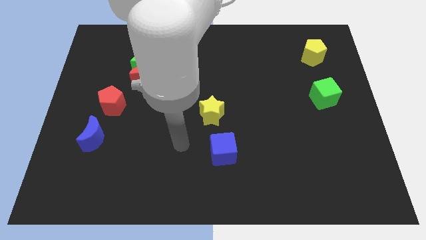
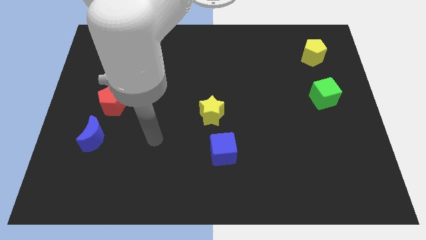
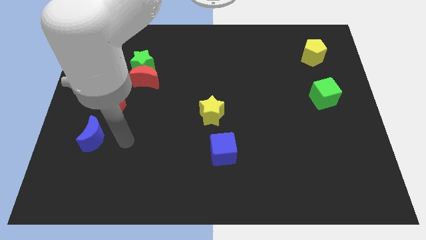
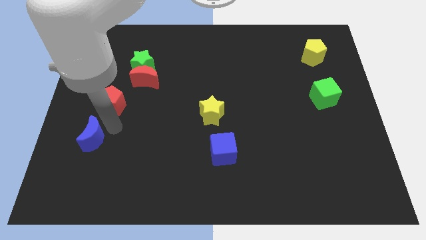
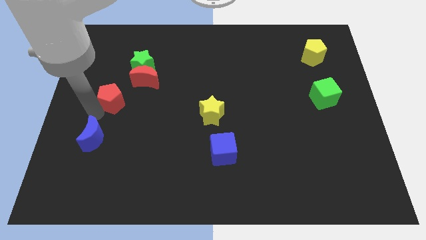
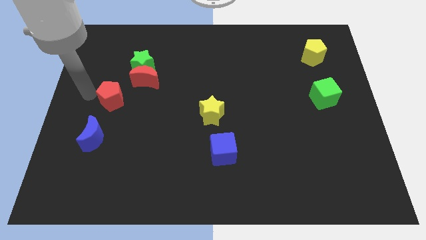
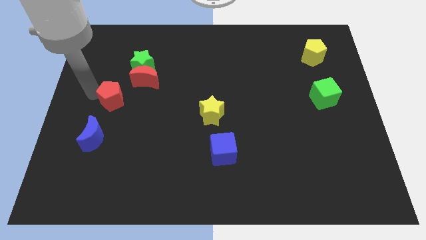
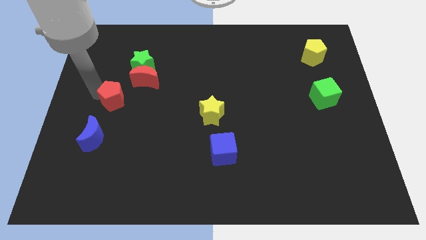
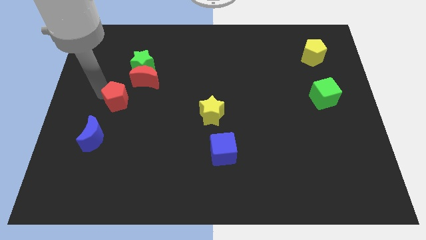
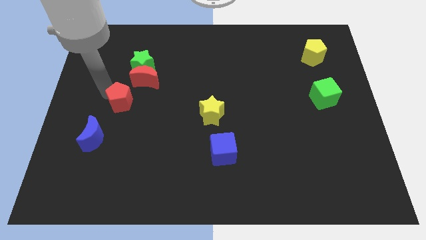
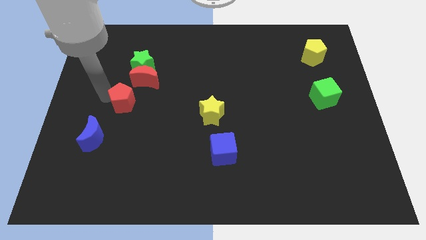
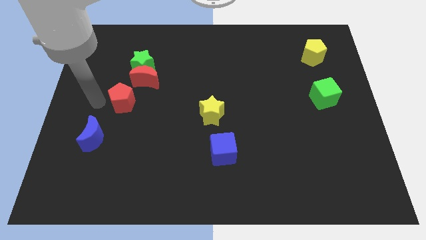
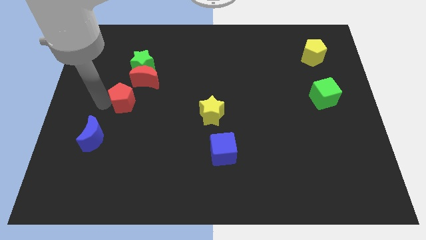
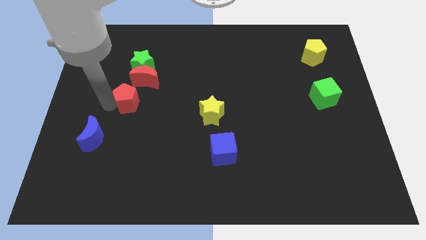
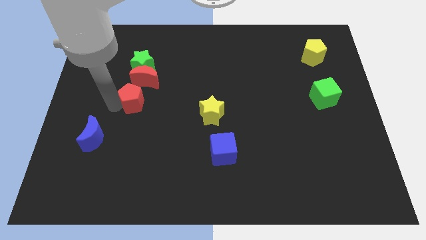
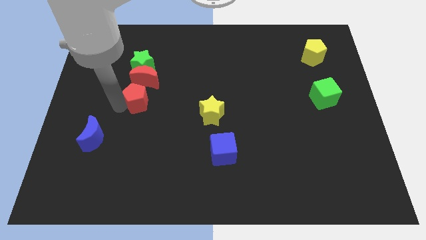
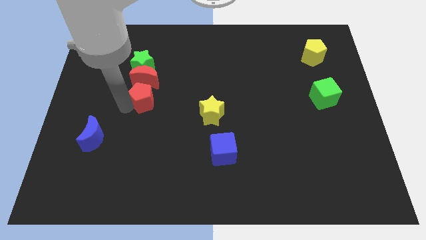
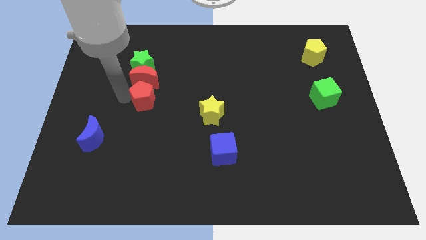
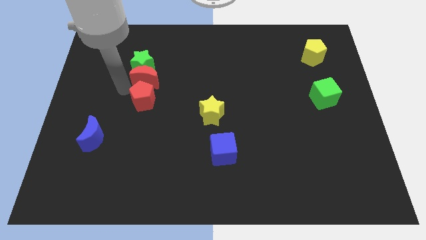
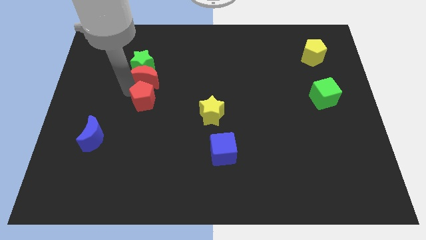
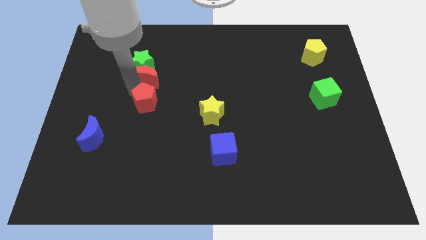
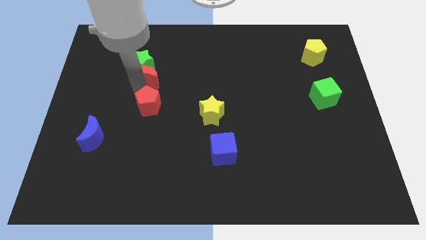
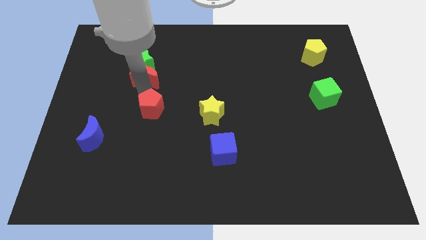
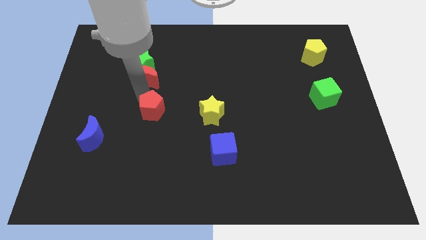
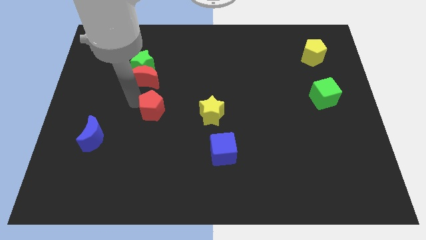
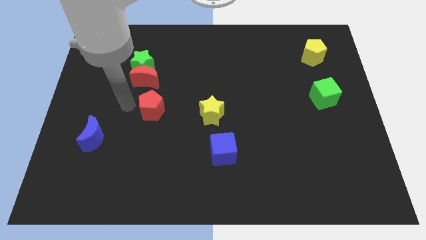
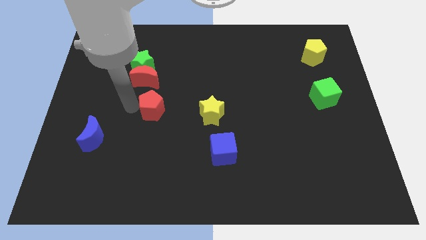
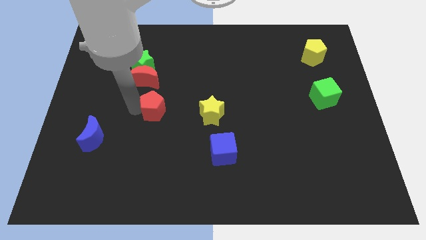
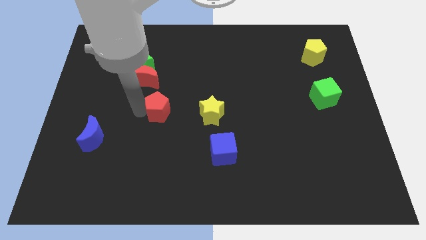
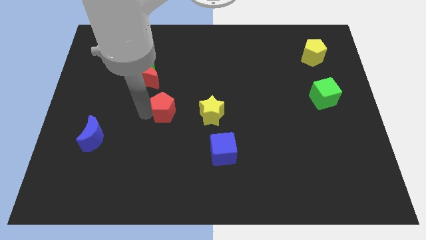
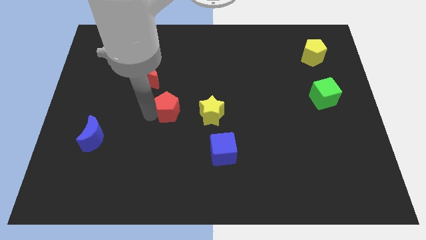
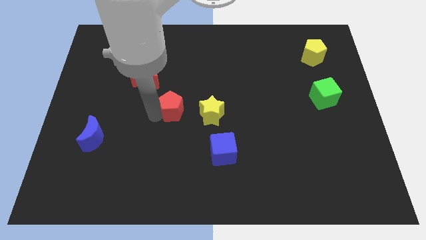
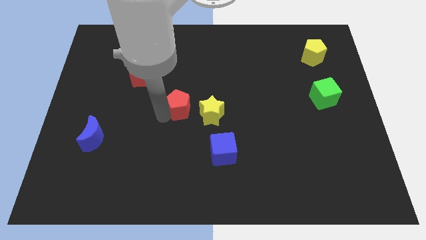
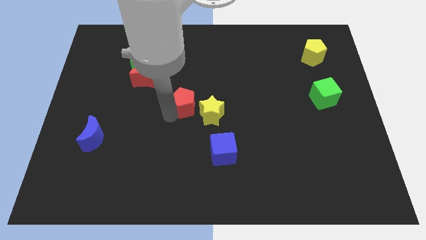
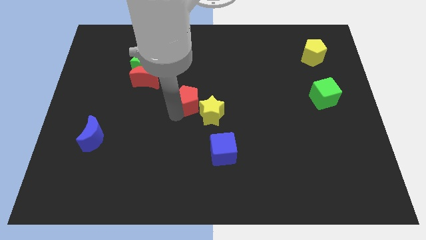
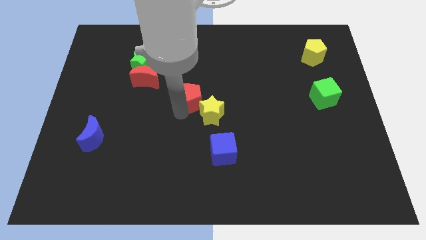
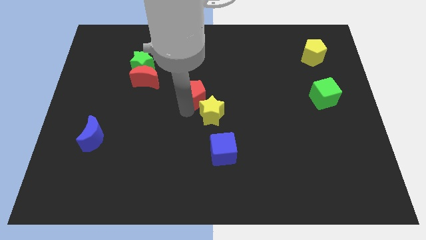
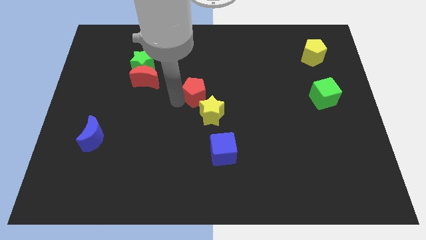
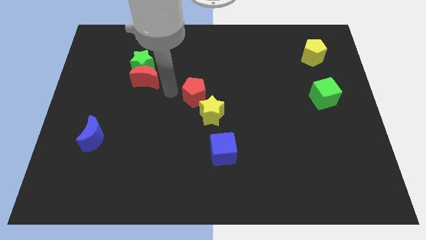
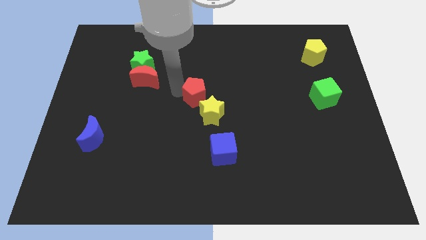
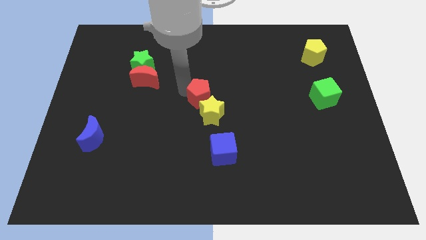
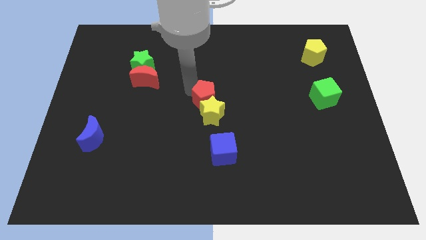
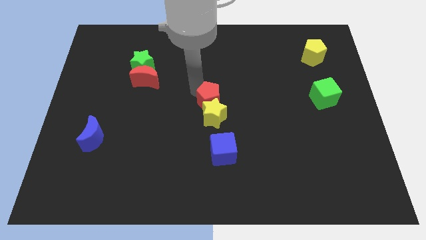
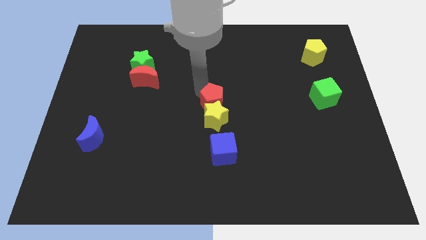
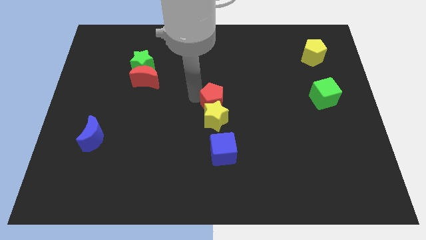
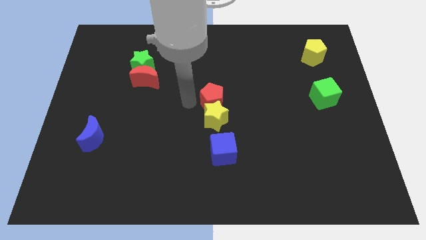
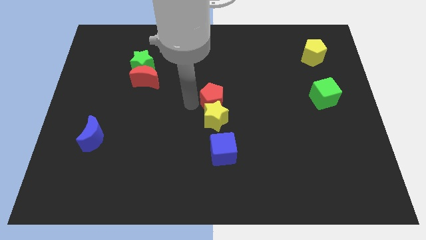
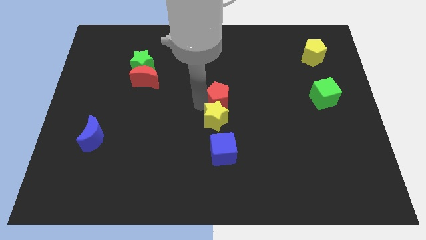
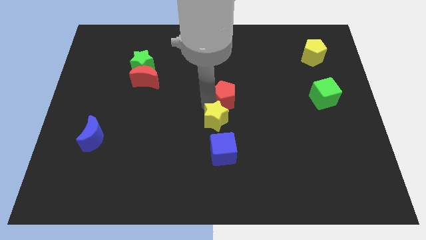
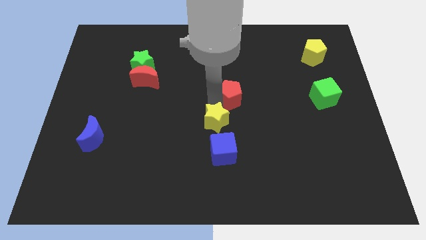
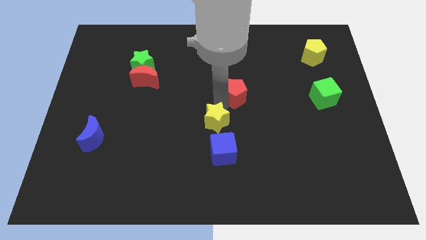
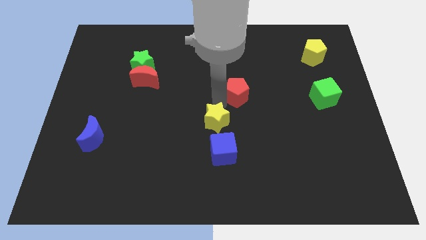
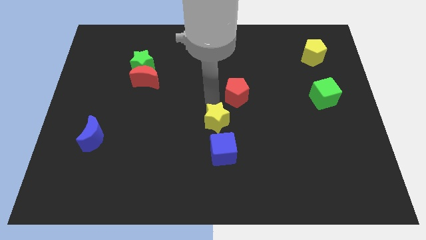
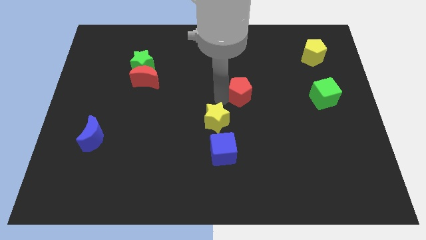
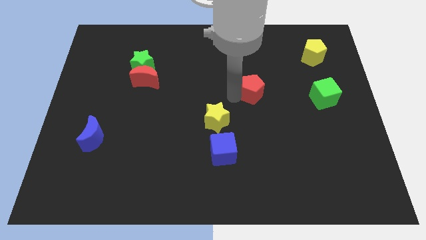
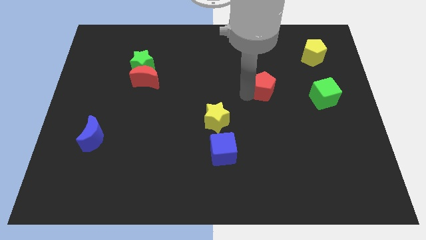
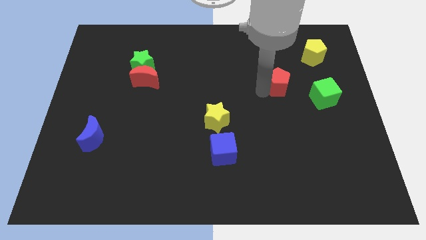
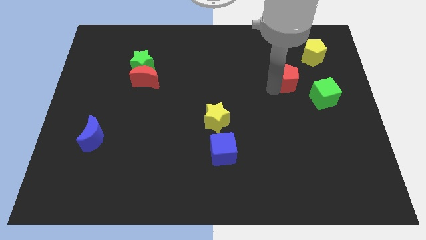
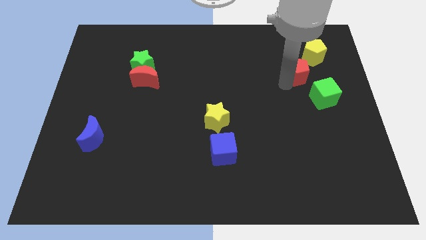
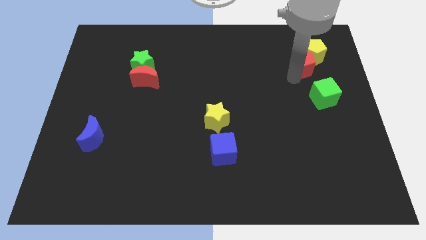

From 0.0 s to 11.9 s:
put the red pentagon close to the yellow pentagon

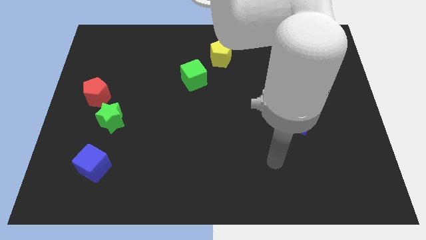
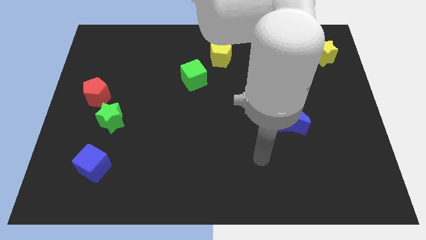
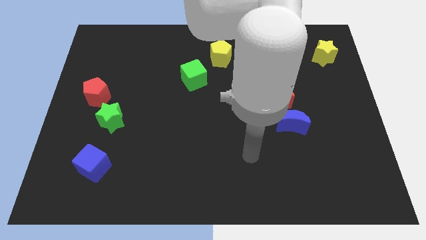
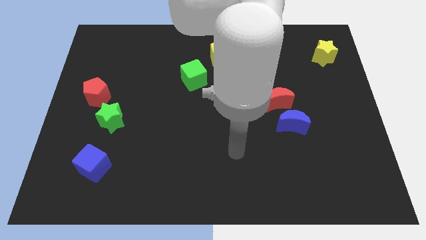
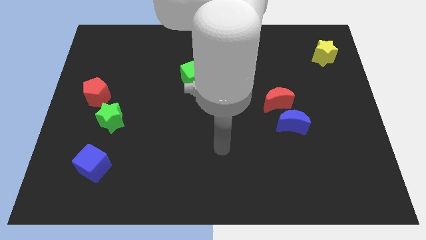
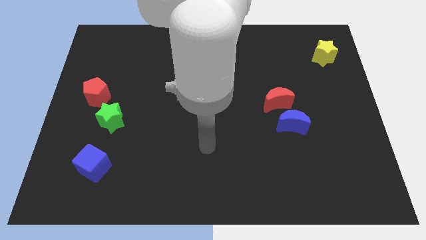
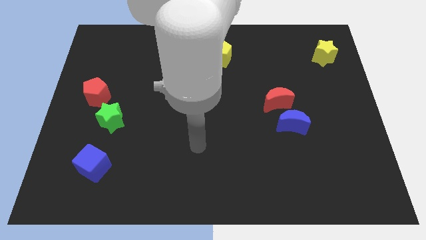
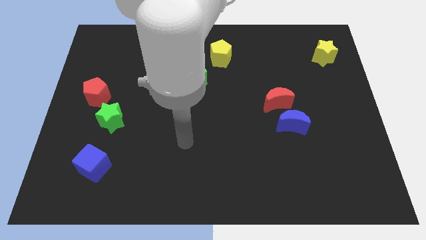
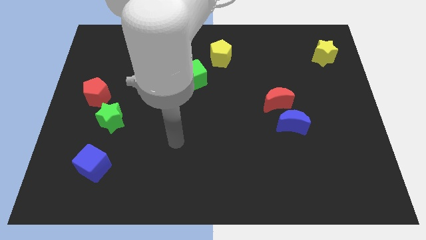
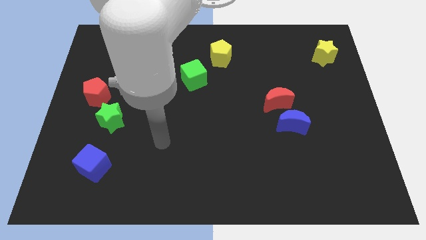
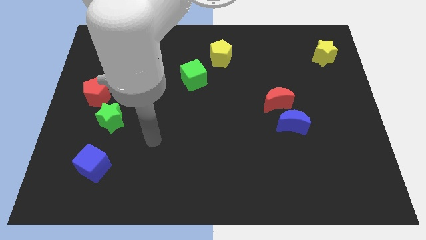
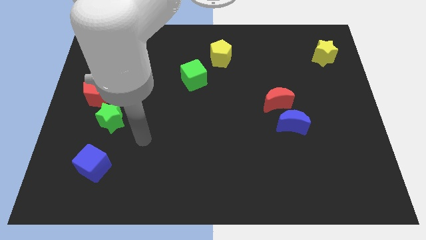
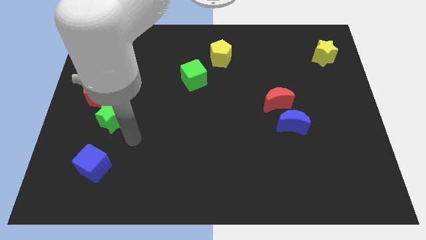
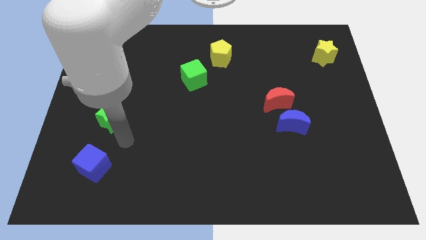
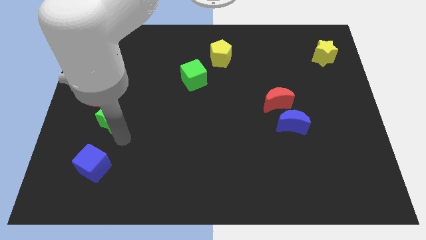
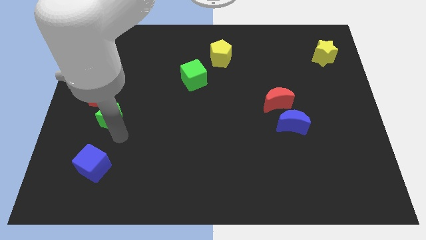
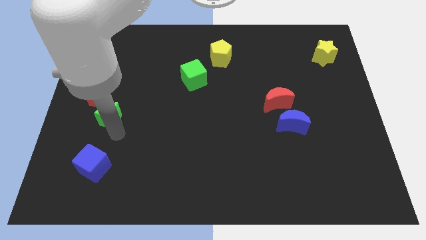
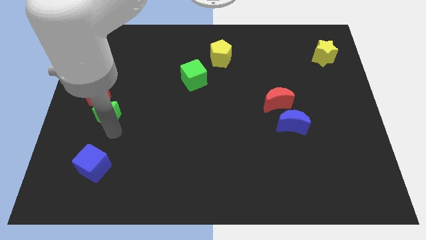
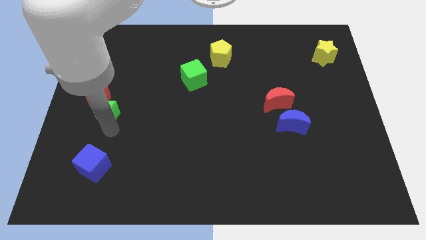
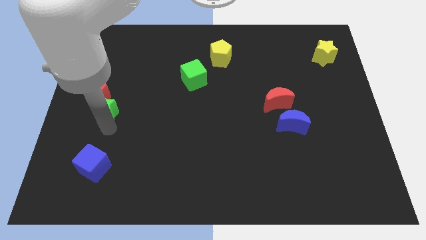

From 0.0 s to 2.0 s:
slide the green star to the red pentagon
